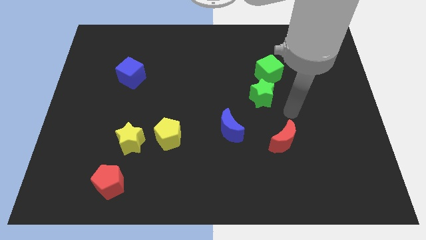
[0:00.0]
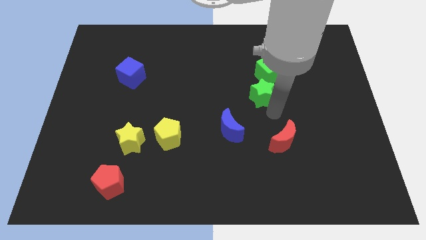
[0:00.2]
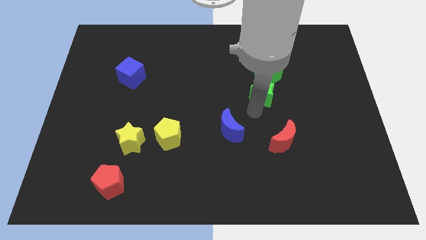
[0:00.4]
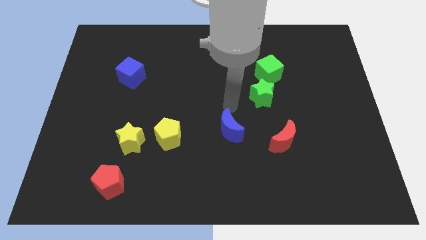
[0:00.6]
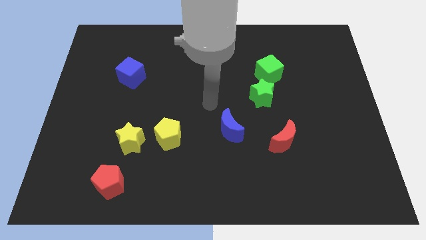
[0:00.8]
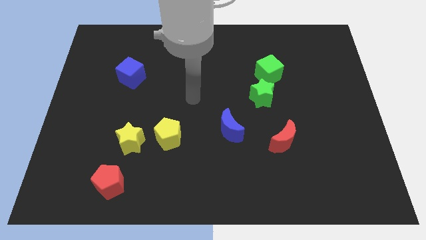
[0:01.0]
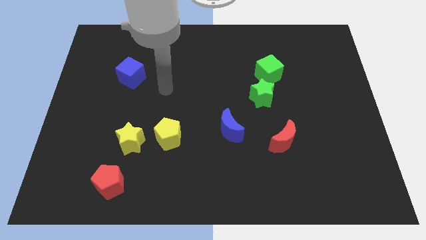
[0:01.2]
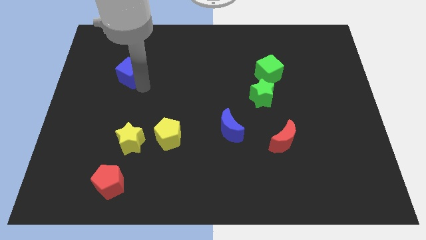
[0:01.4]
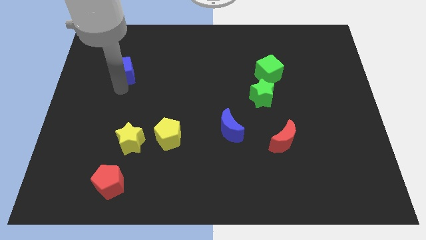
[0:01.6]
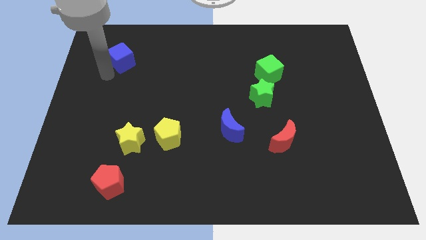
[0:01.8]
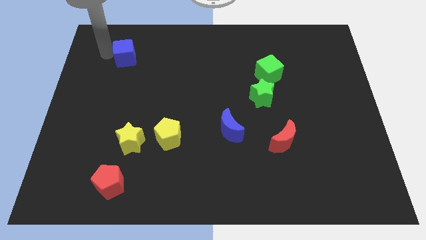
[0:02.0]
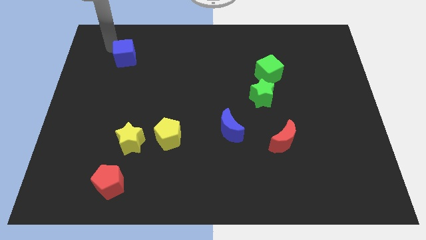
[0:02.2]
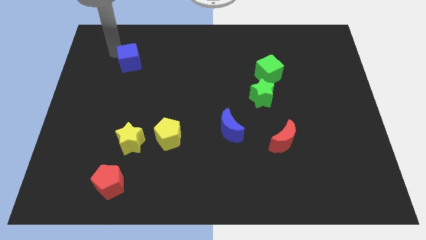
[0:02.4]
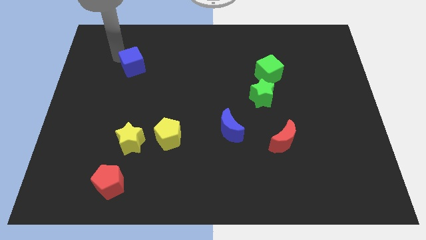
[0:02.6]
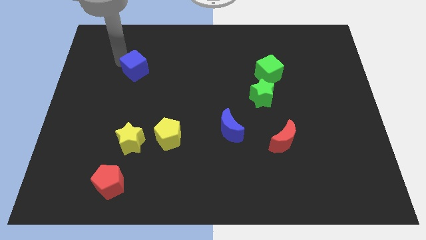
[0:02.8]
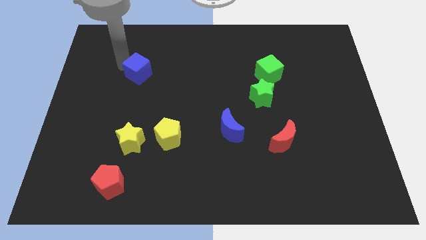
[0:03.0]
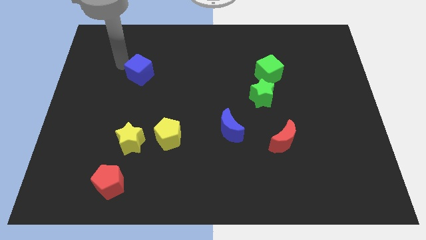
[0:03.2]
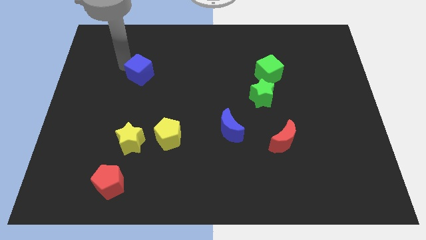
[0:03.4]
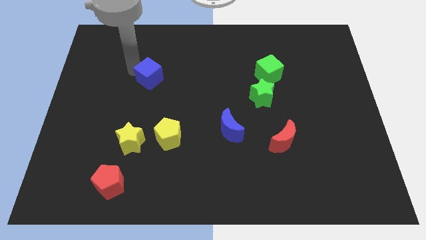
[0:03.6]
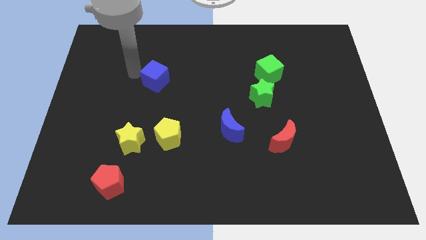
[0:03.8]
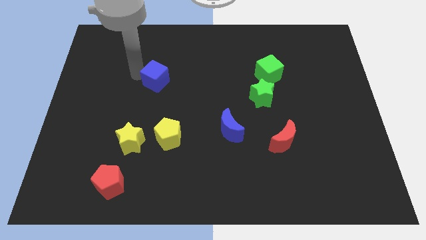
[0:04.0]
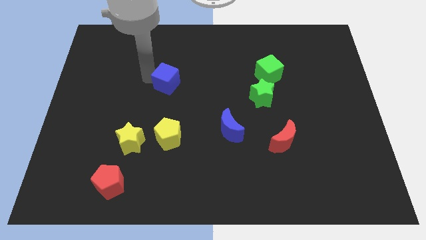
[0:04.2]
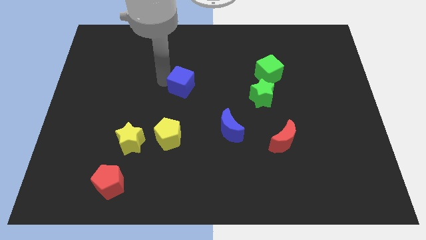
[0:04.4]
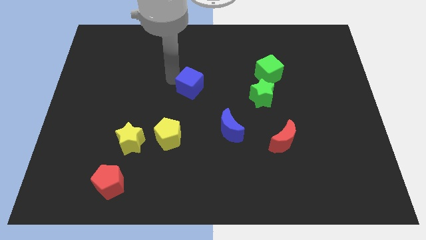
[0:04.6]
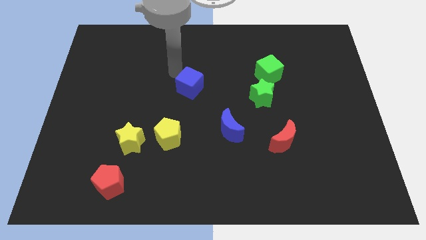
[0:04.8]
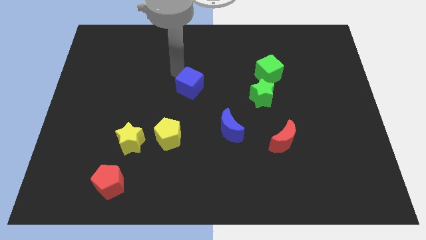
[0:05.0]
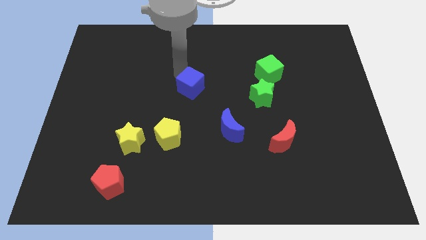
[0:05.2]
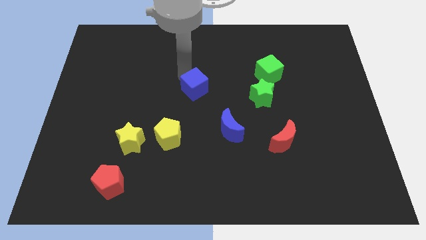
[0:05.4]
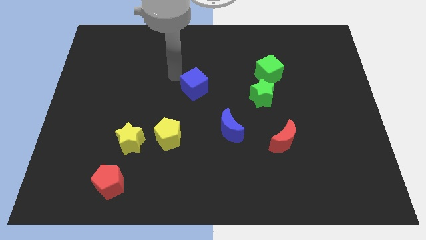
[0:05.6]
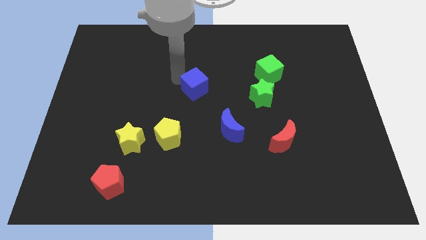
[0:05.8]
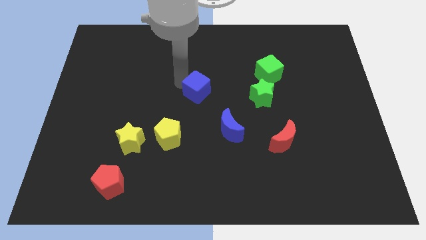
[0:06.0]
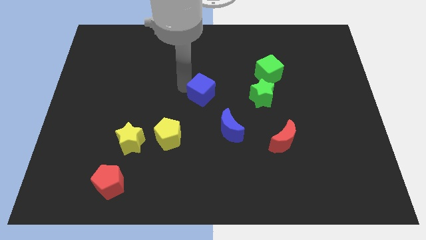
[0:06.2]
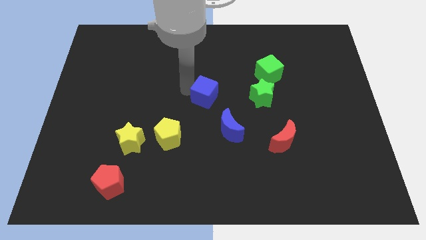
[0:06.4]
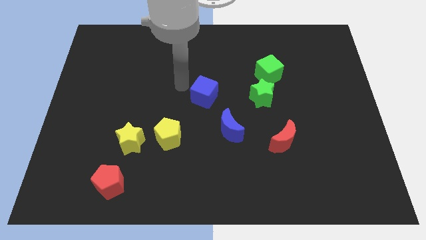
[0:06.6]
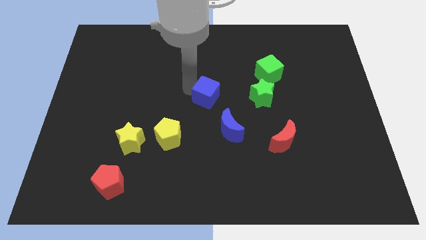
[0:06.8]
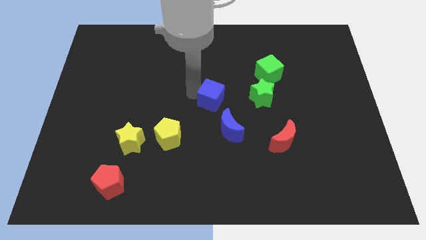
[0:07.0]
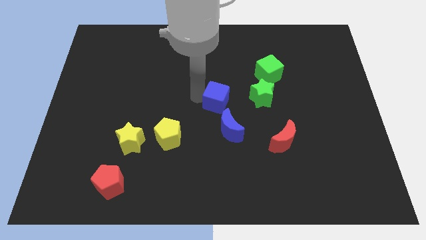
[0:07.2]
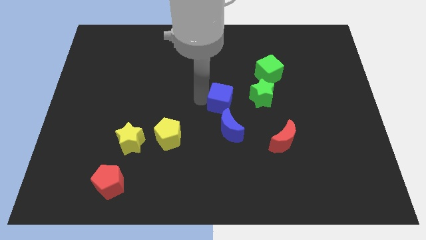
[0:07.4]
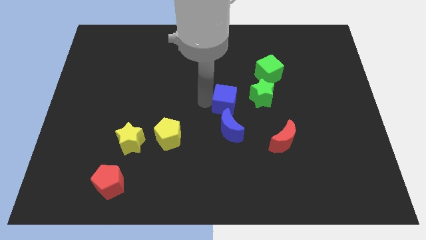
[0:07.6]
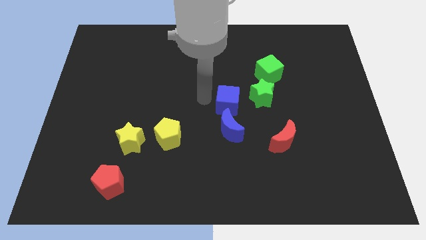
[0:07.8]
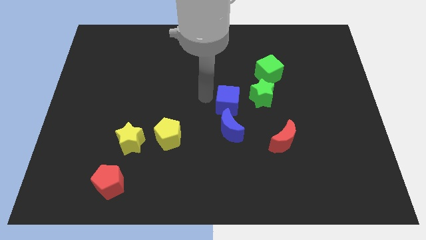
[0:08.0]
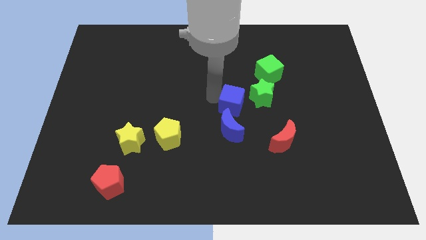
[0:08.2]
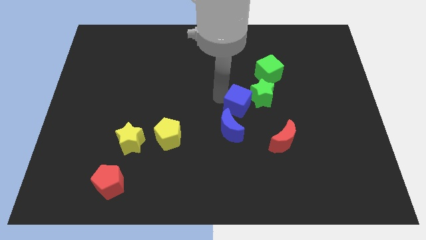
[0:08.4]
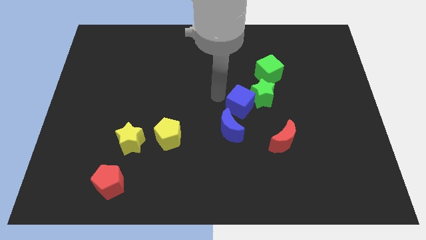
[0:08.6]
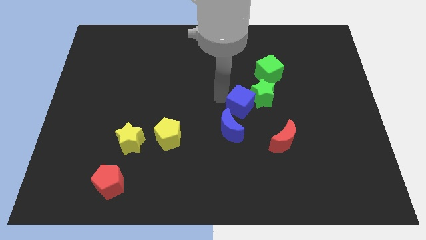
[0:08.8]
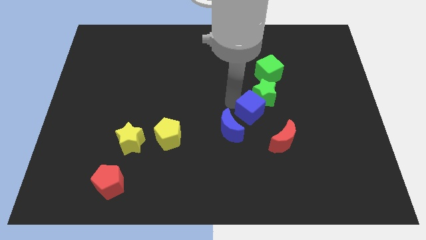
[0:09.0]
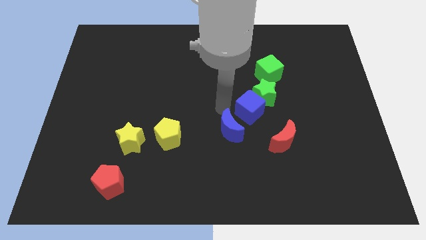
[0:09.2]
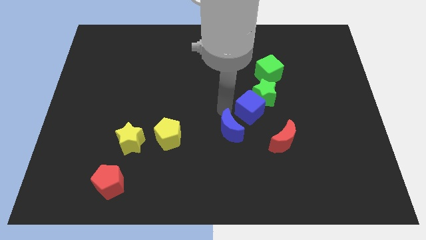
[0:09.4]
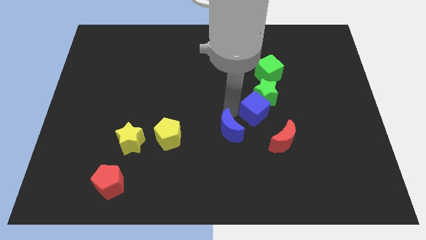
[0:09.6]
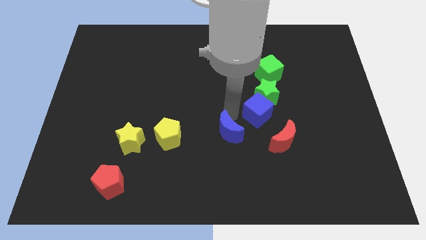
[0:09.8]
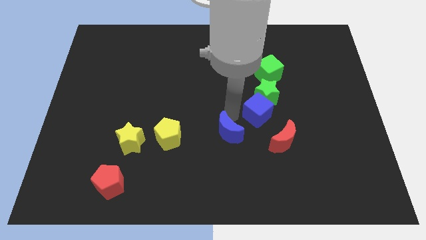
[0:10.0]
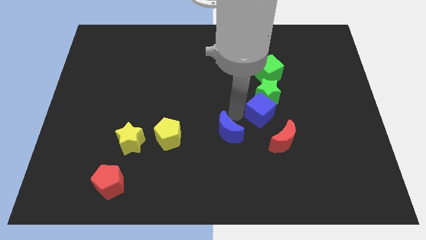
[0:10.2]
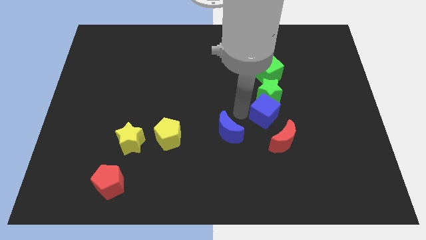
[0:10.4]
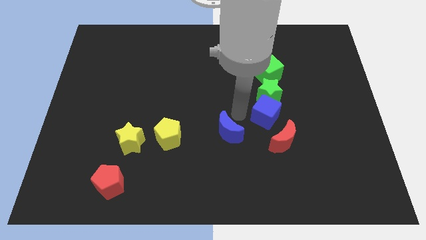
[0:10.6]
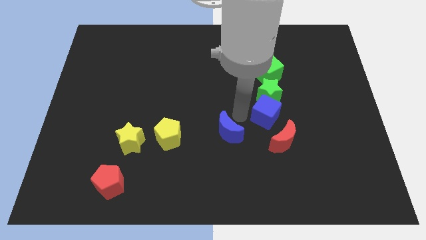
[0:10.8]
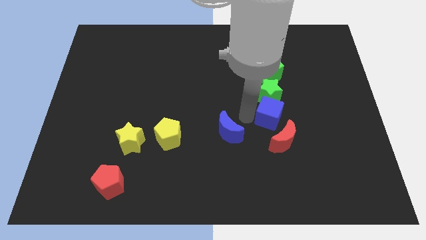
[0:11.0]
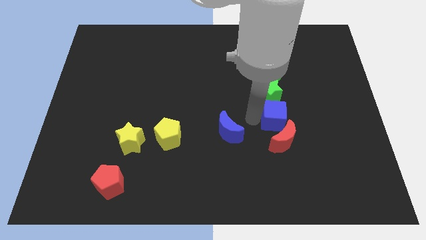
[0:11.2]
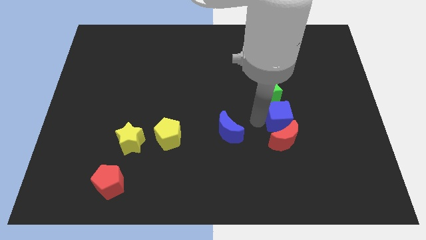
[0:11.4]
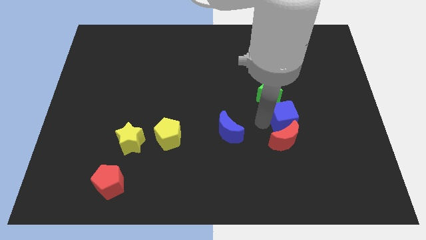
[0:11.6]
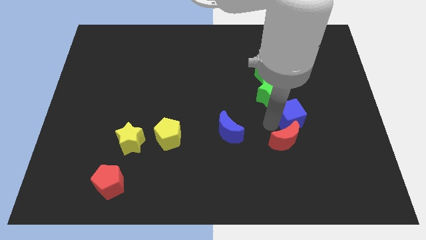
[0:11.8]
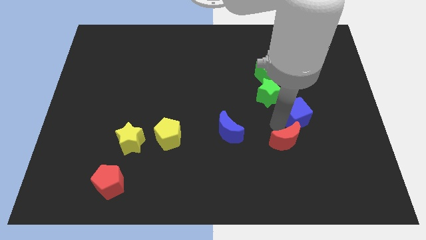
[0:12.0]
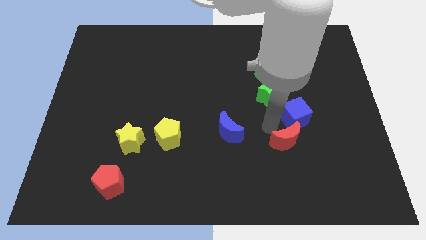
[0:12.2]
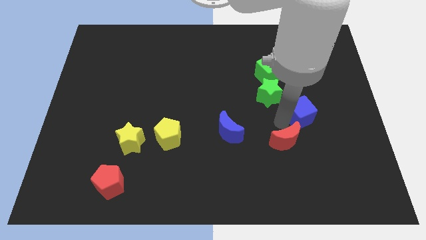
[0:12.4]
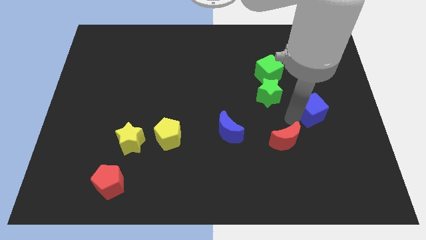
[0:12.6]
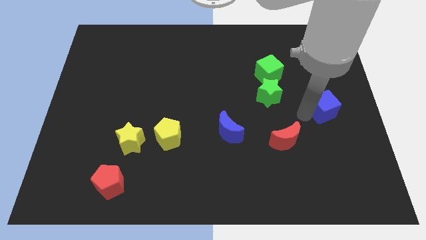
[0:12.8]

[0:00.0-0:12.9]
move the blue cube to the right side

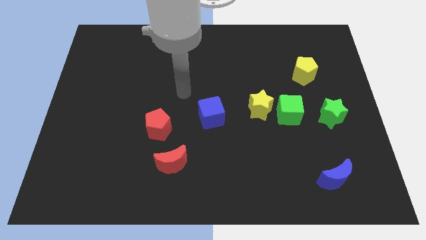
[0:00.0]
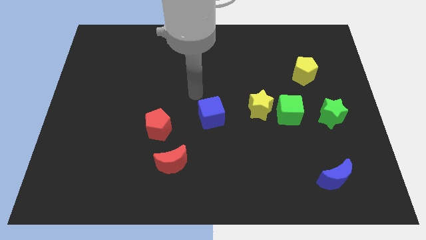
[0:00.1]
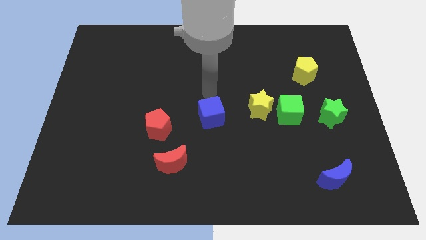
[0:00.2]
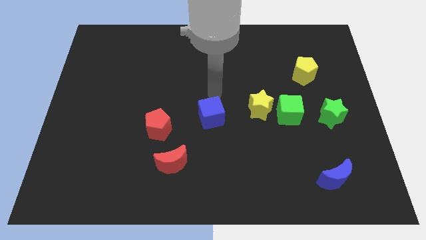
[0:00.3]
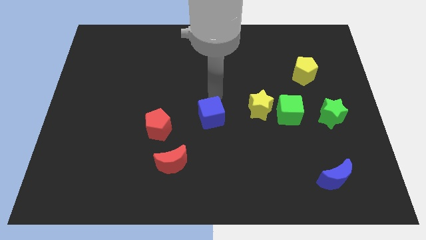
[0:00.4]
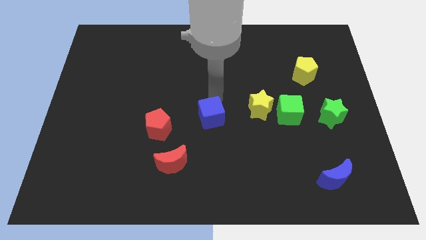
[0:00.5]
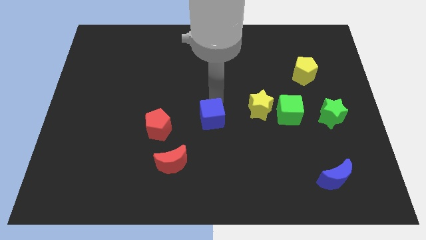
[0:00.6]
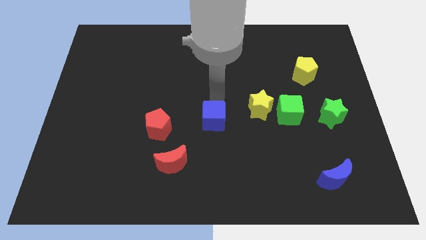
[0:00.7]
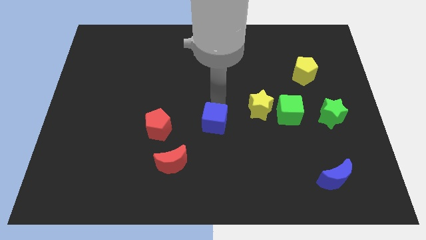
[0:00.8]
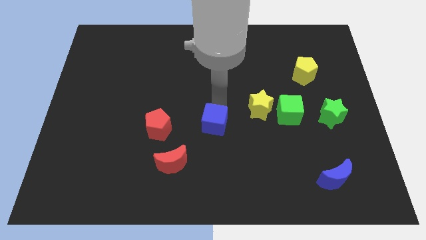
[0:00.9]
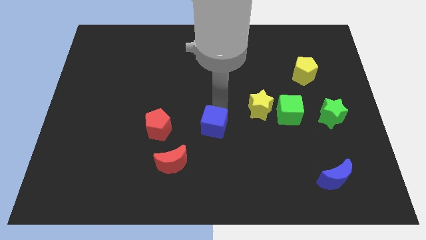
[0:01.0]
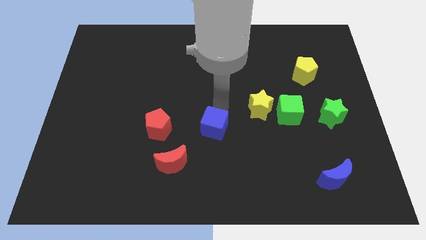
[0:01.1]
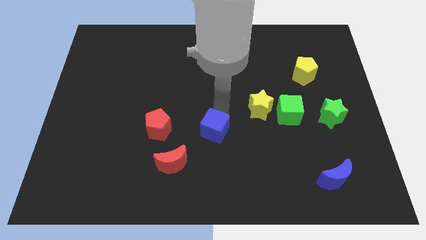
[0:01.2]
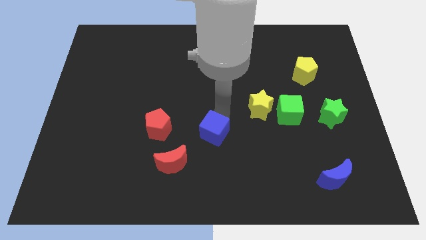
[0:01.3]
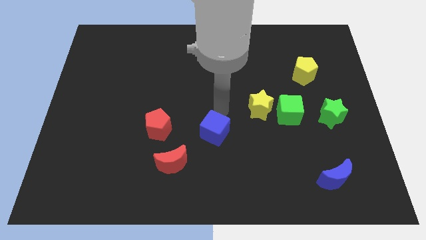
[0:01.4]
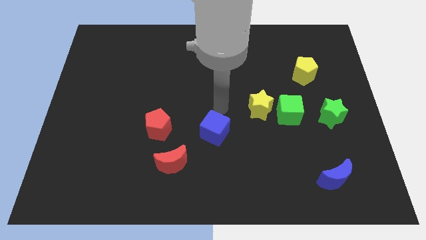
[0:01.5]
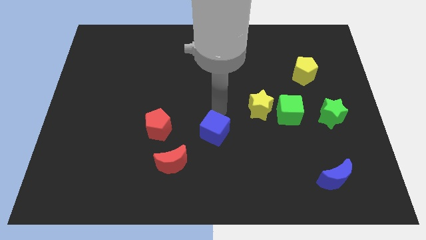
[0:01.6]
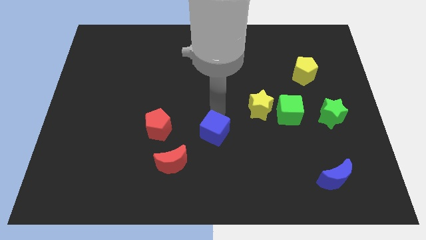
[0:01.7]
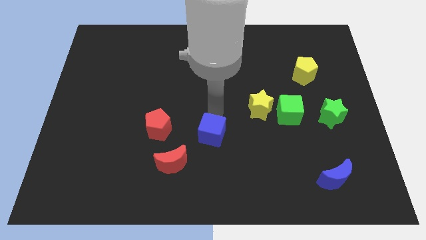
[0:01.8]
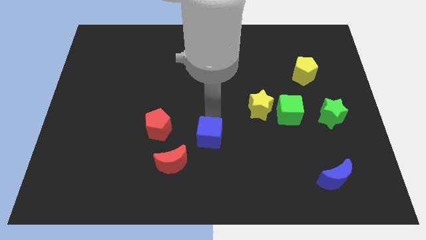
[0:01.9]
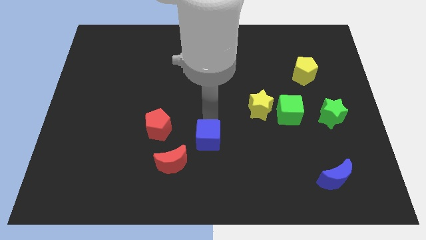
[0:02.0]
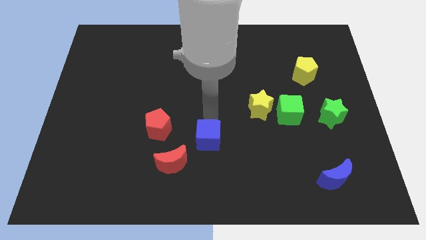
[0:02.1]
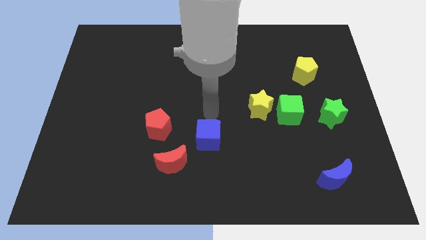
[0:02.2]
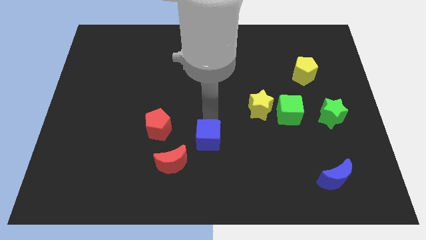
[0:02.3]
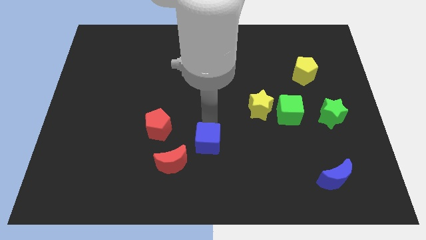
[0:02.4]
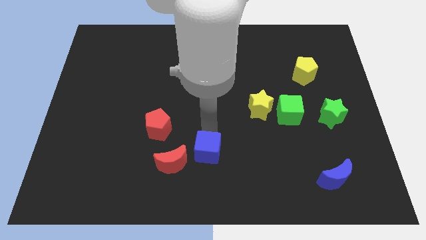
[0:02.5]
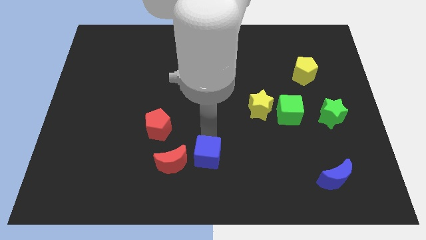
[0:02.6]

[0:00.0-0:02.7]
put the blue cube to the bottom
